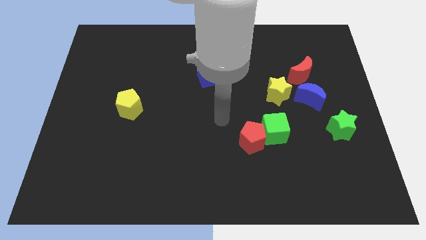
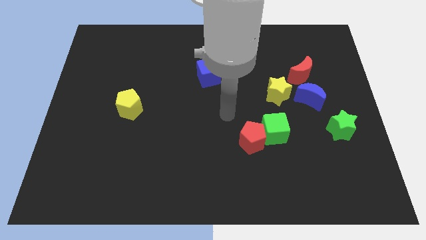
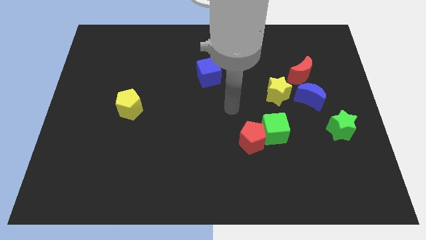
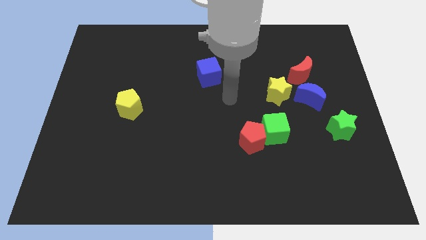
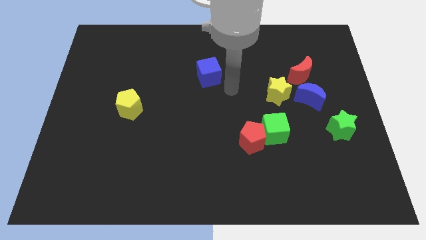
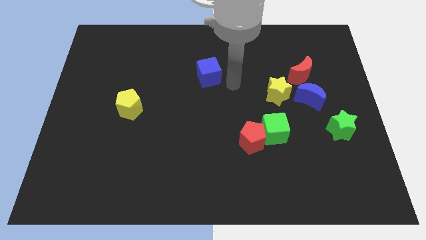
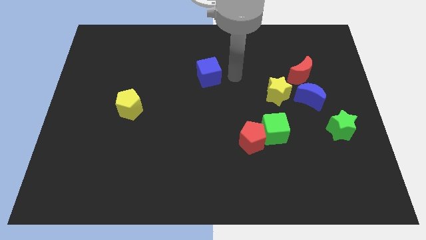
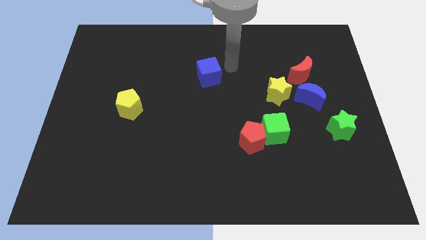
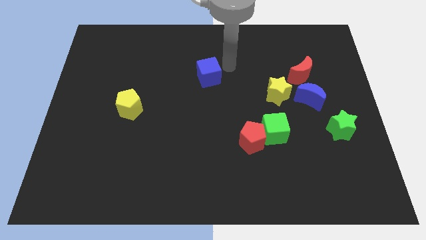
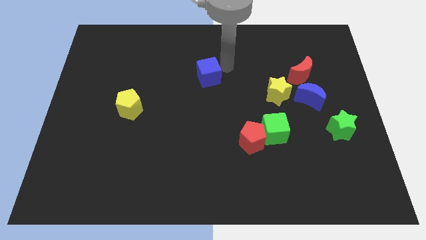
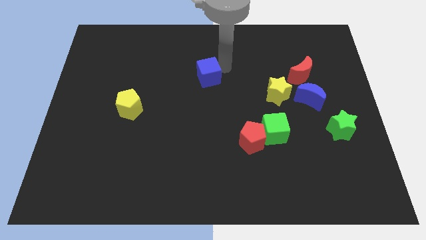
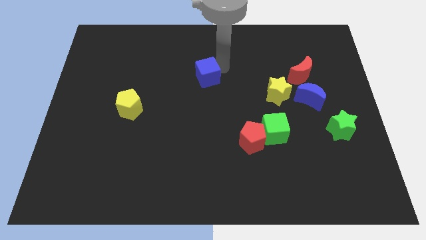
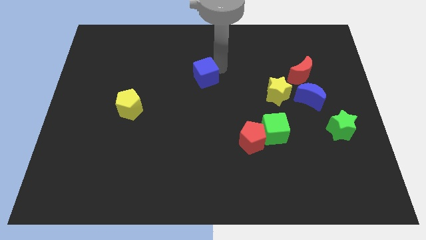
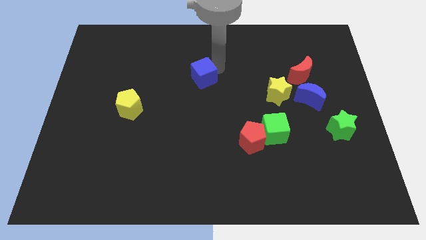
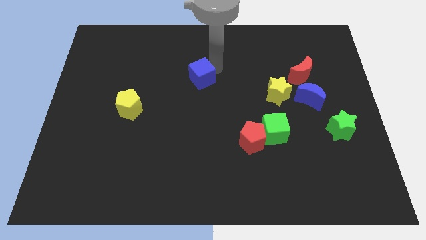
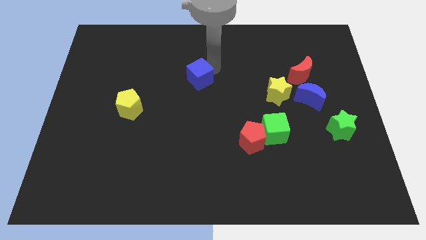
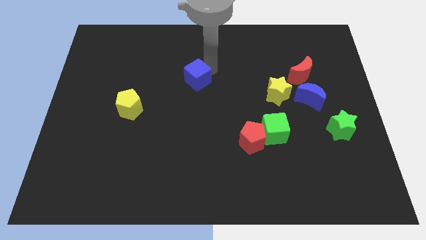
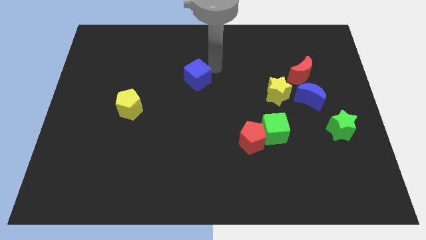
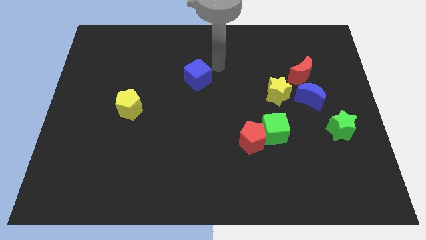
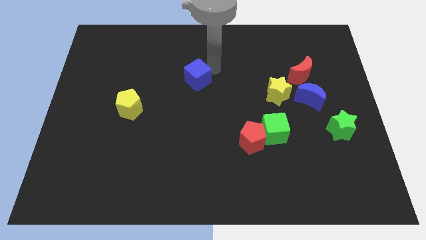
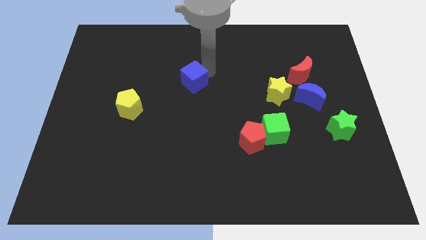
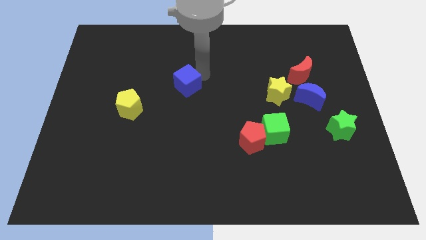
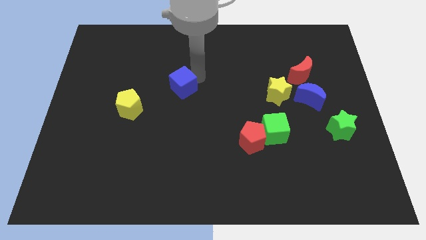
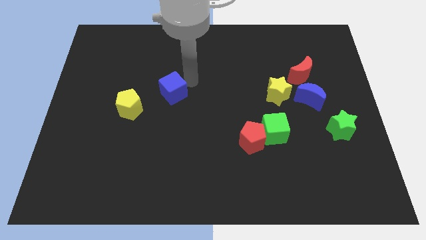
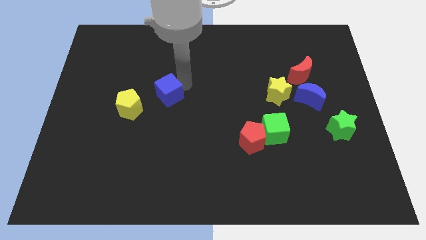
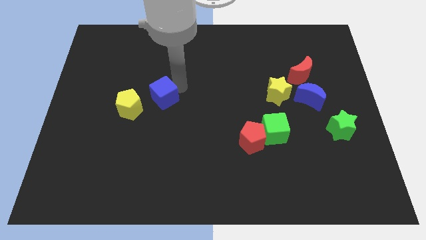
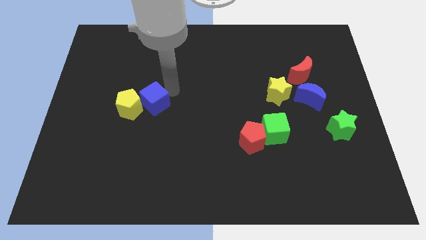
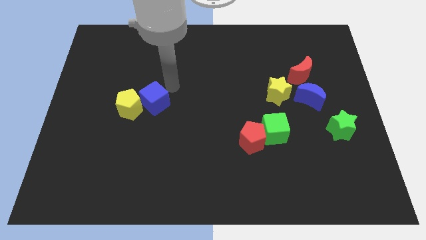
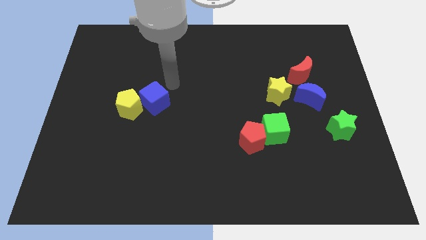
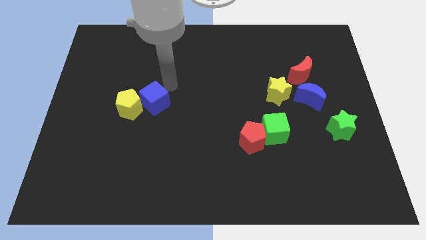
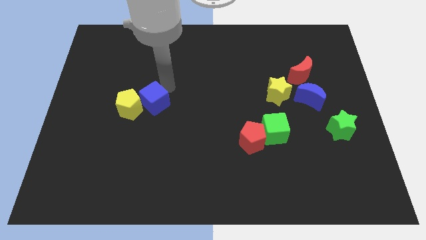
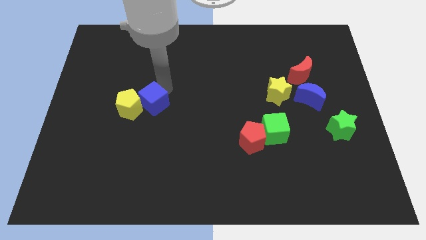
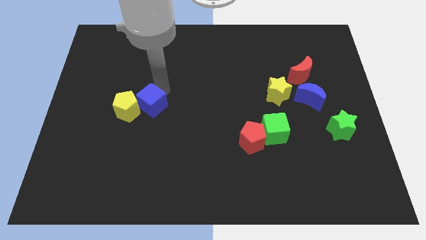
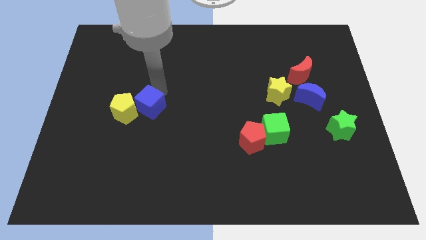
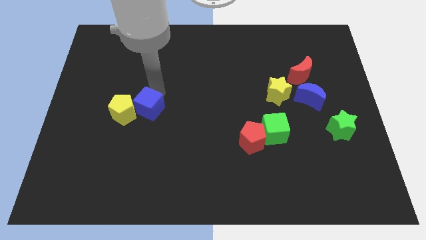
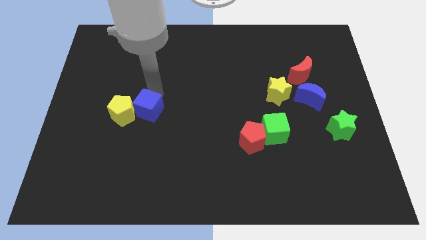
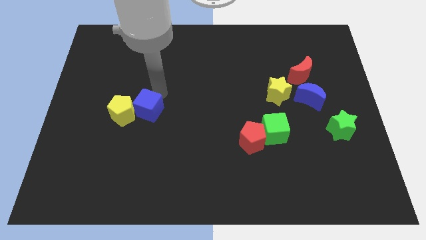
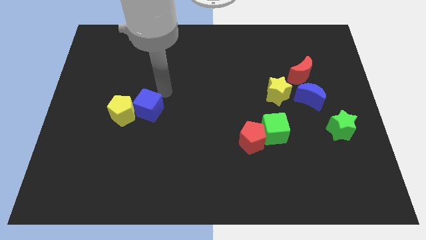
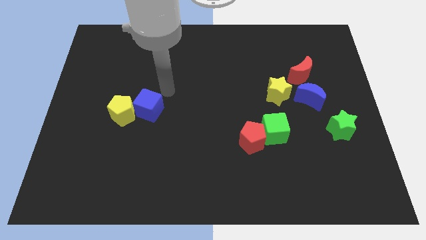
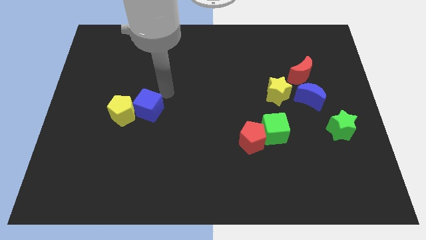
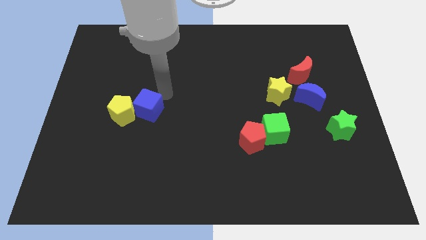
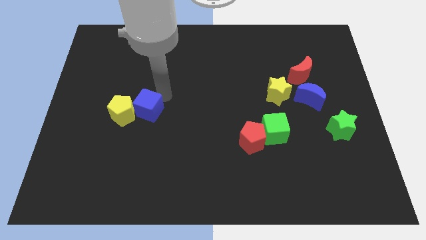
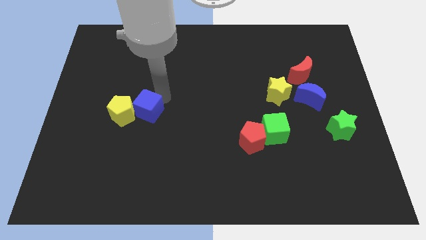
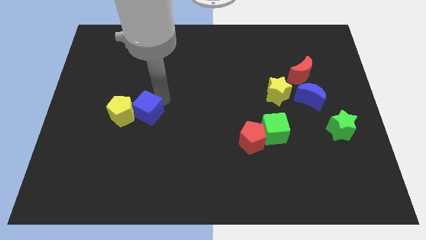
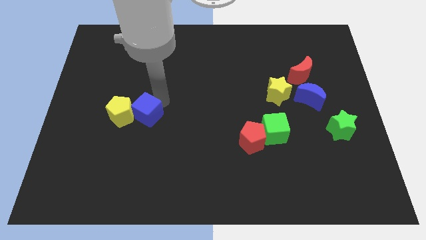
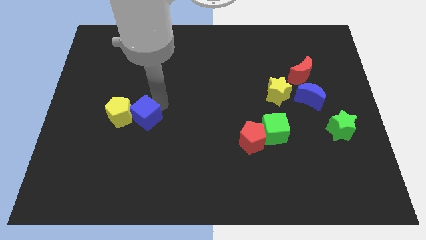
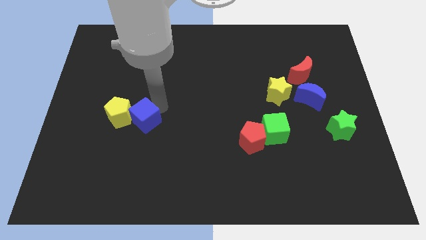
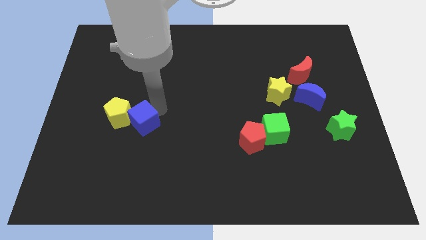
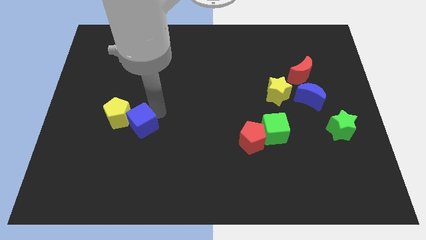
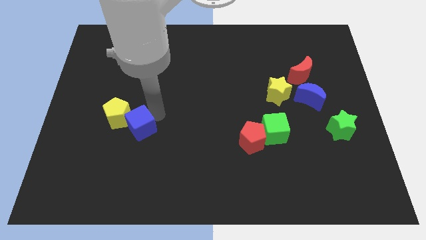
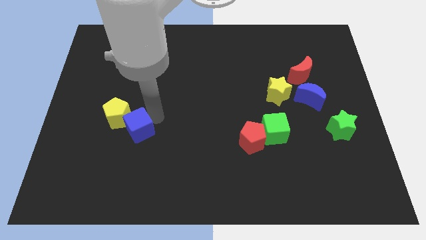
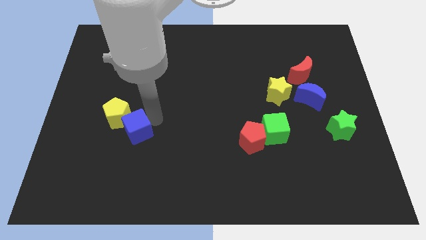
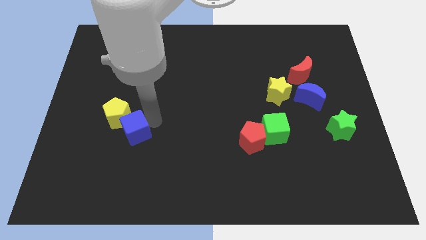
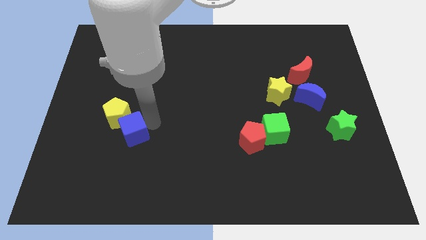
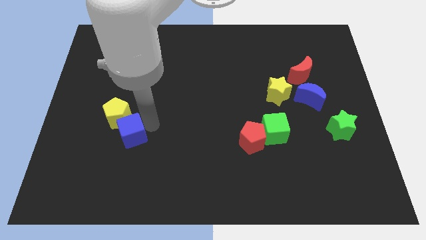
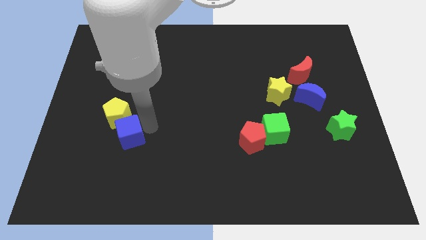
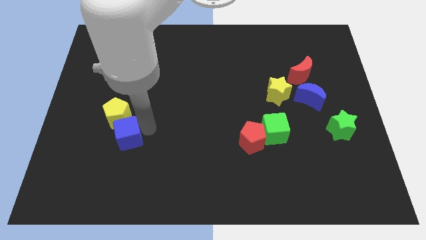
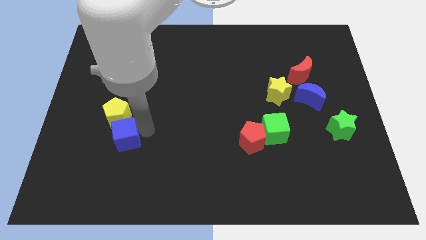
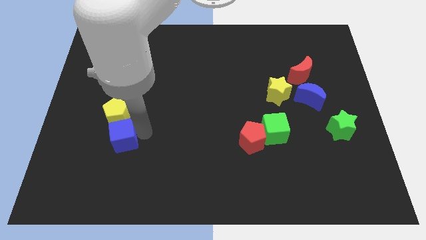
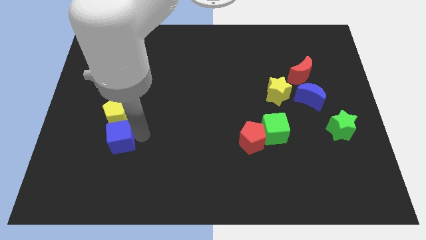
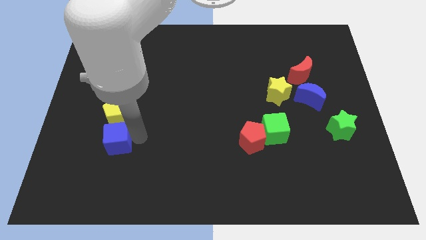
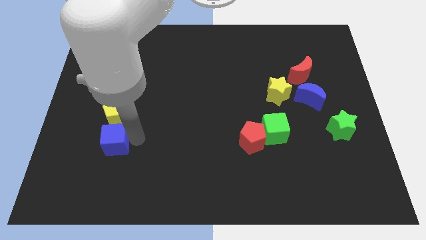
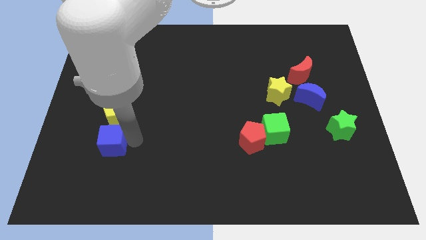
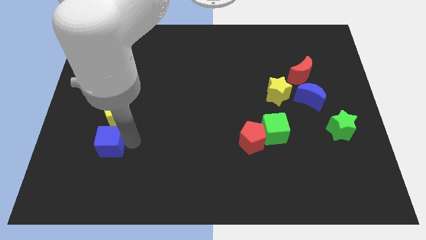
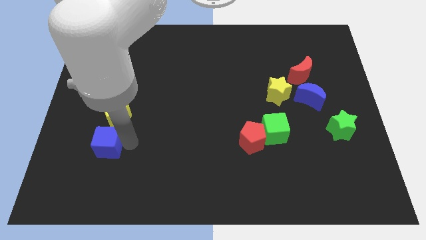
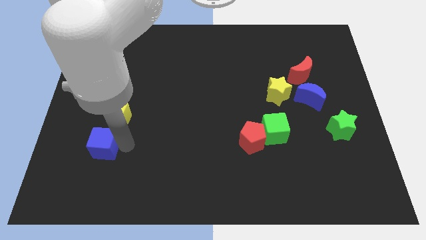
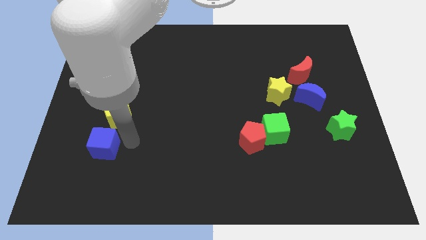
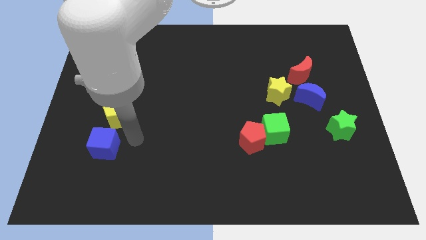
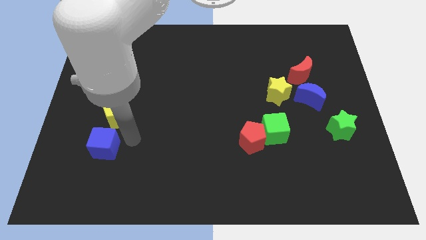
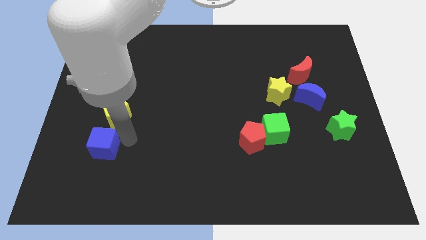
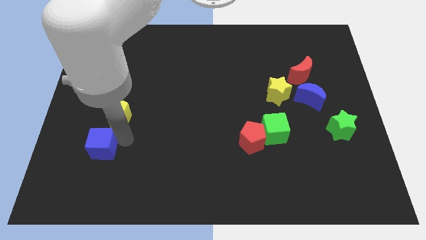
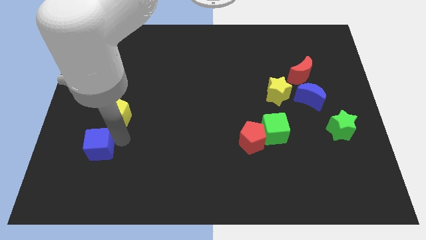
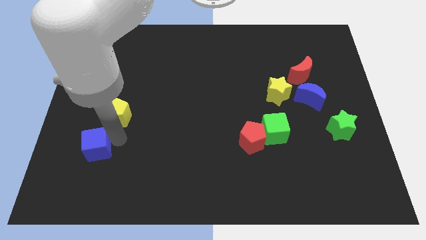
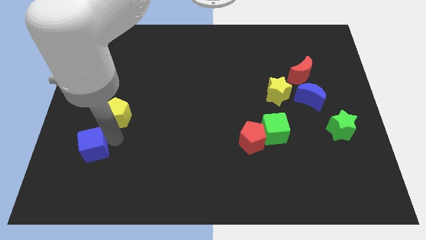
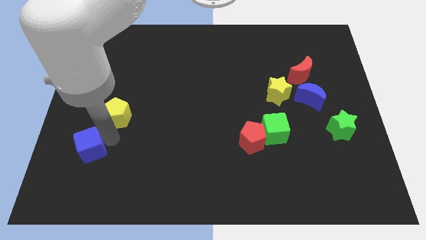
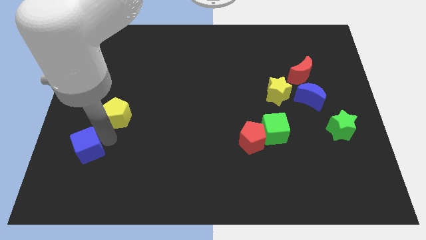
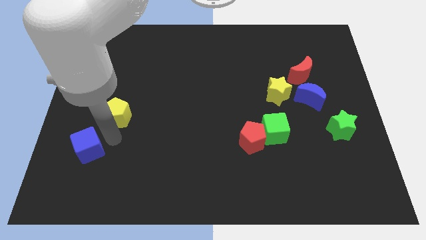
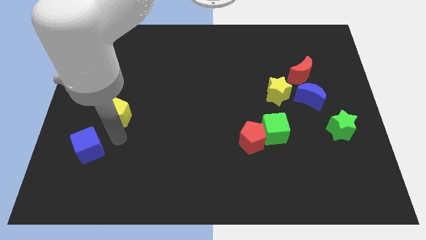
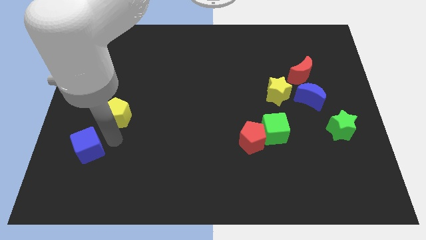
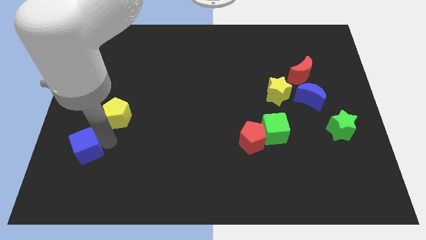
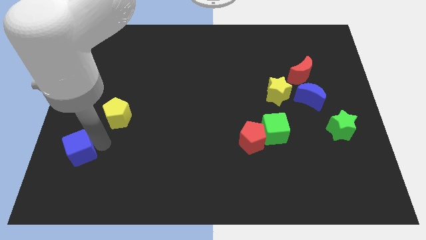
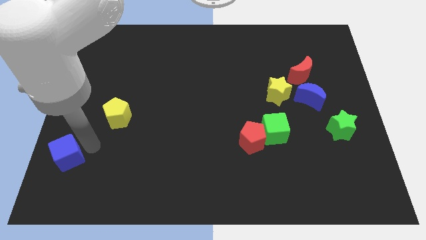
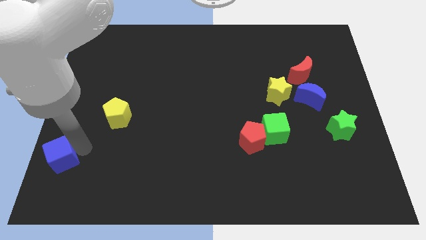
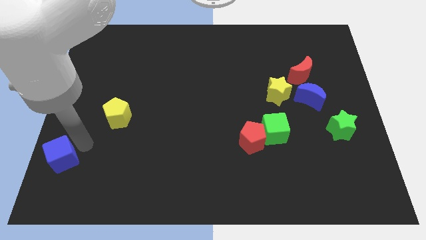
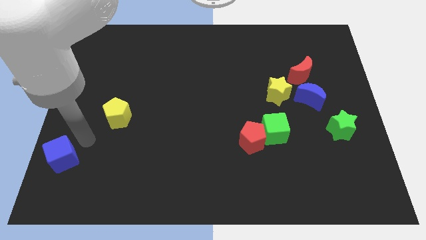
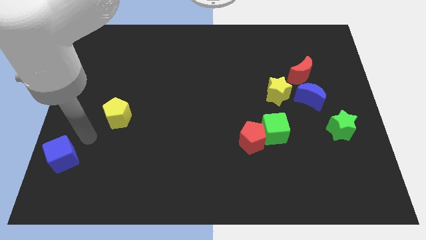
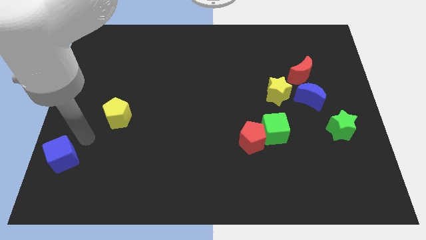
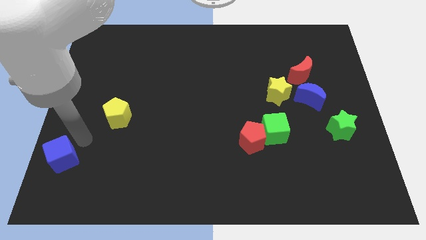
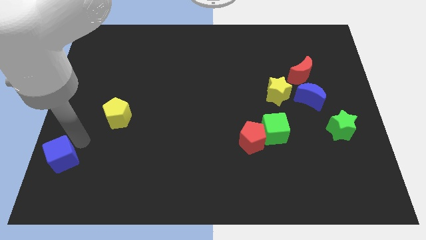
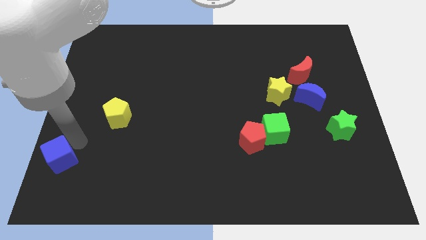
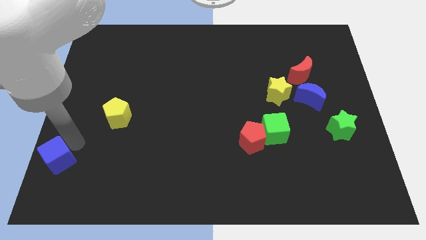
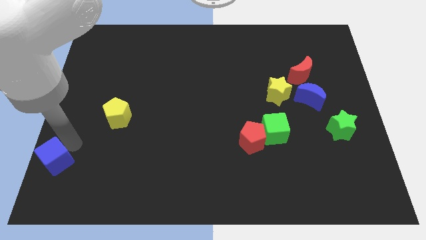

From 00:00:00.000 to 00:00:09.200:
slide the blue cube to the bottom left corner
